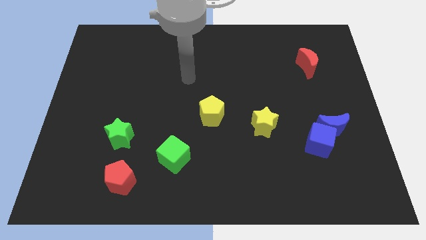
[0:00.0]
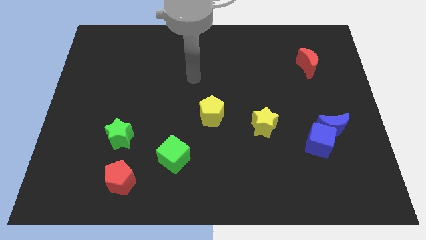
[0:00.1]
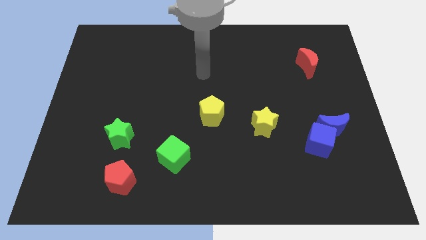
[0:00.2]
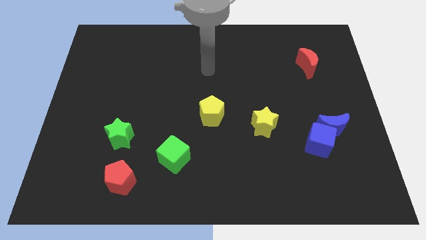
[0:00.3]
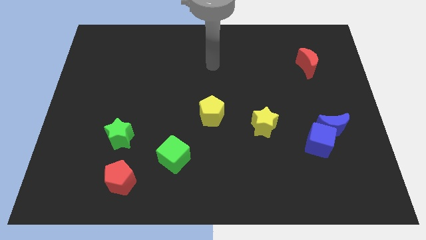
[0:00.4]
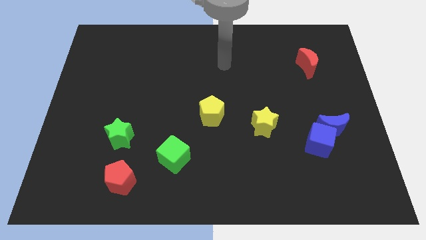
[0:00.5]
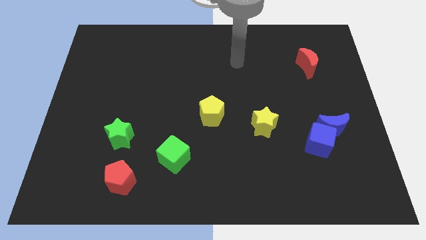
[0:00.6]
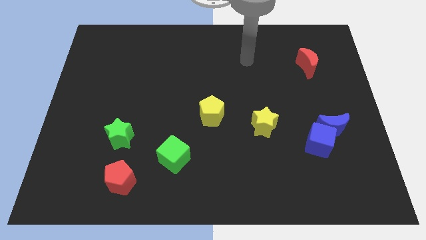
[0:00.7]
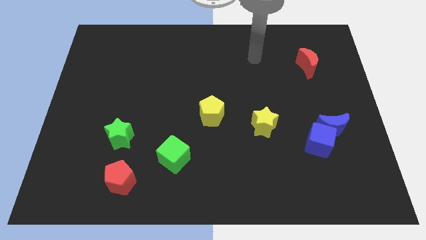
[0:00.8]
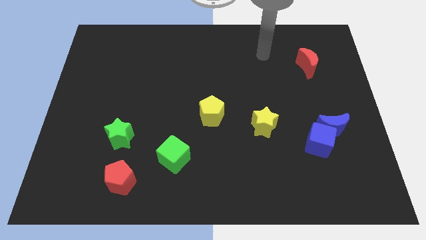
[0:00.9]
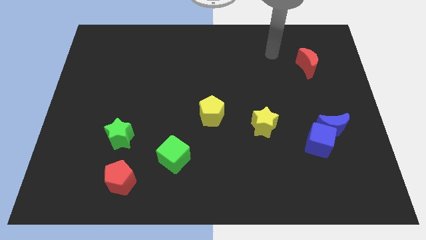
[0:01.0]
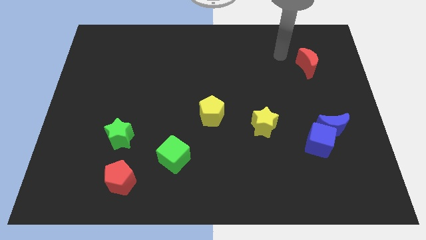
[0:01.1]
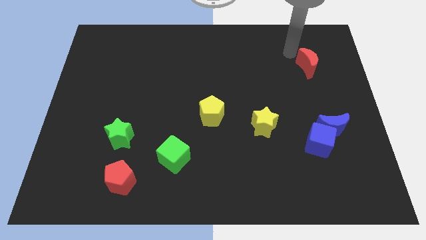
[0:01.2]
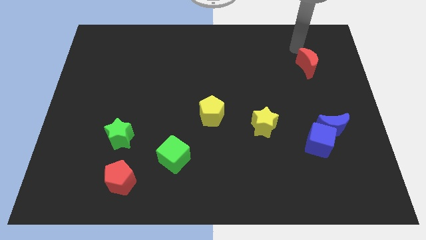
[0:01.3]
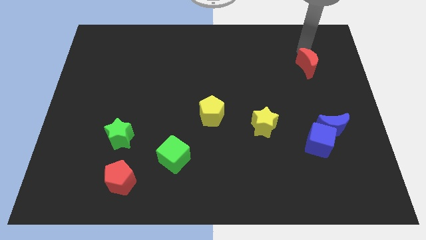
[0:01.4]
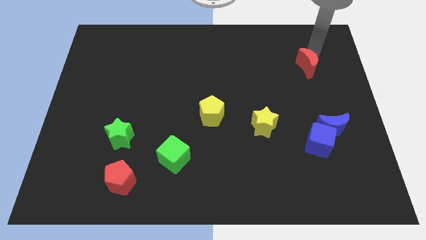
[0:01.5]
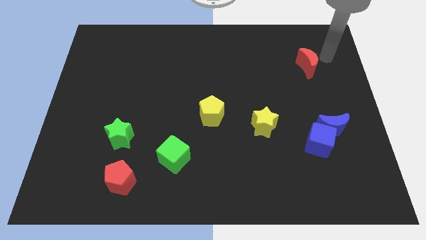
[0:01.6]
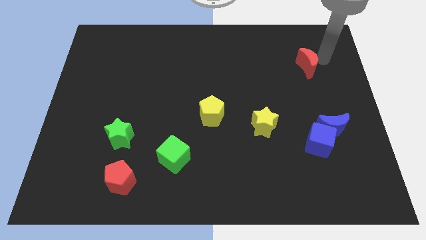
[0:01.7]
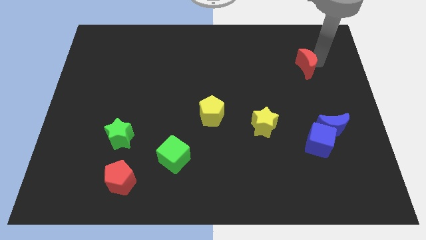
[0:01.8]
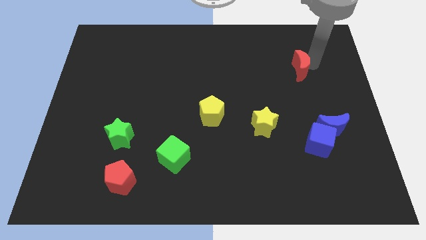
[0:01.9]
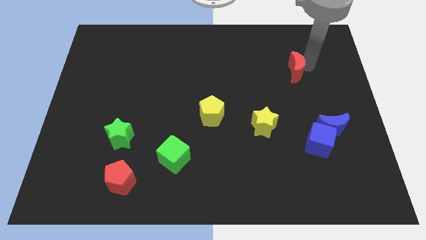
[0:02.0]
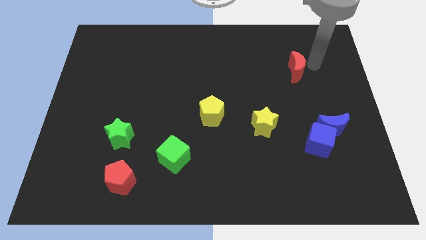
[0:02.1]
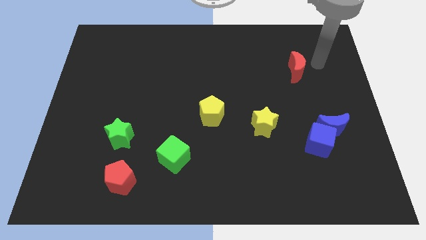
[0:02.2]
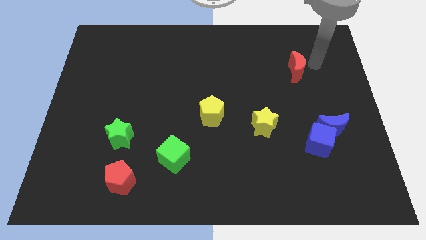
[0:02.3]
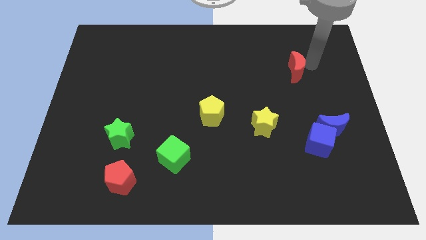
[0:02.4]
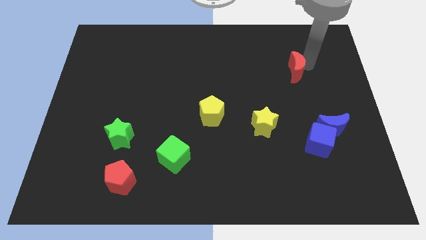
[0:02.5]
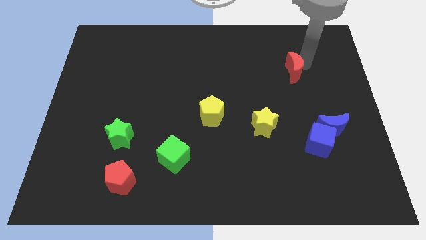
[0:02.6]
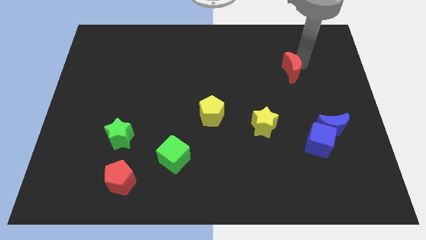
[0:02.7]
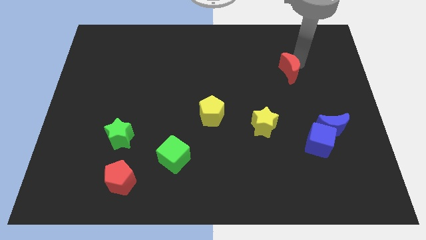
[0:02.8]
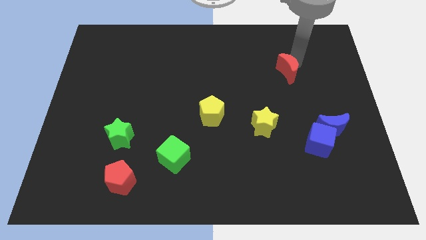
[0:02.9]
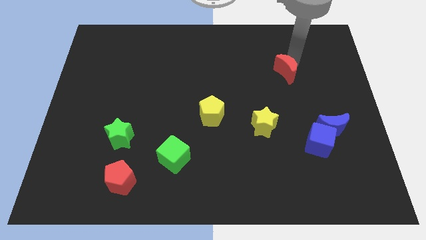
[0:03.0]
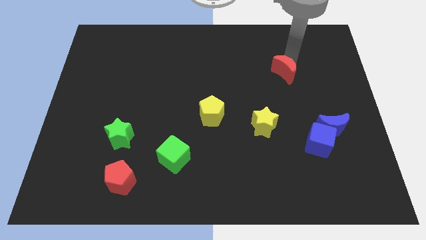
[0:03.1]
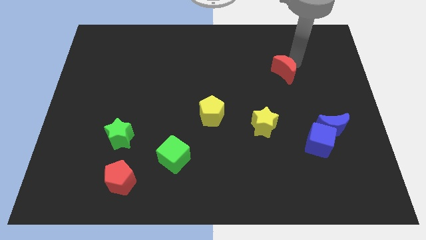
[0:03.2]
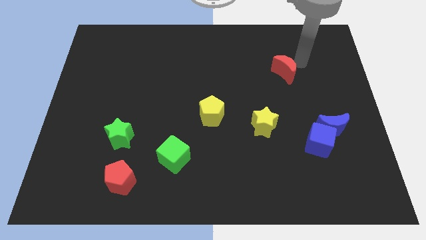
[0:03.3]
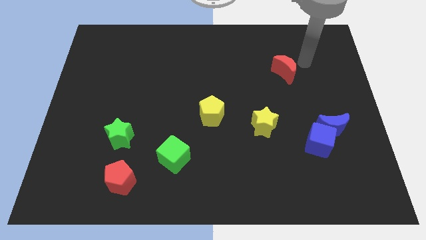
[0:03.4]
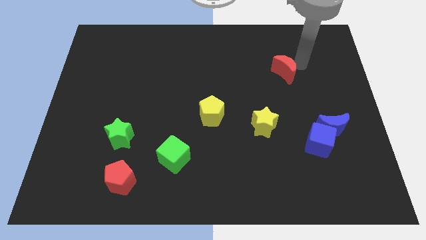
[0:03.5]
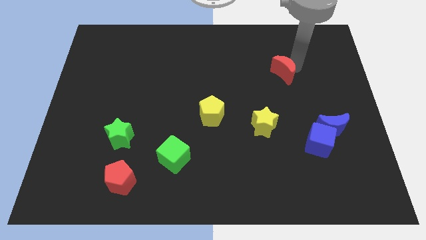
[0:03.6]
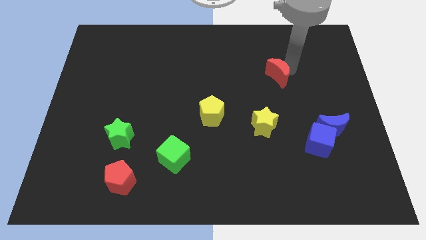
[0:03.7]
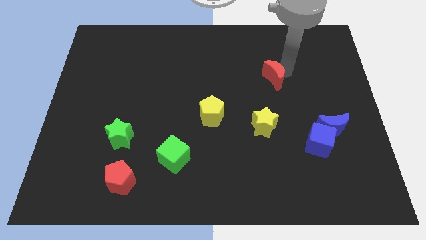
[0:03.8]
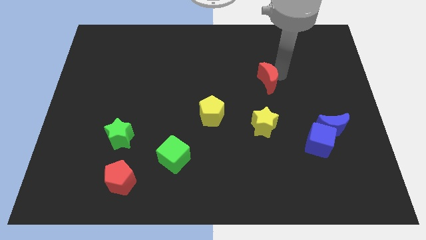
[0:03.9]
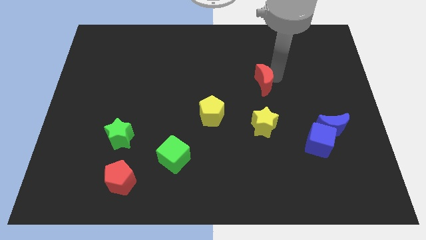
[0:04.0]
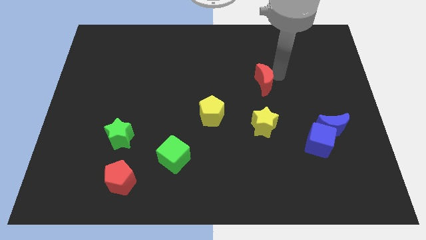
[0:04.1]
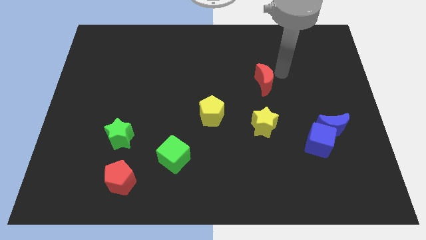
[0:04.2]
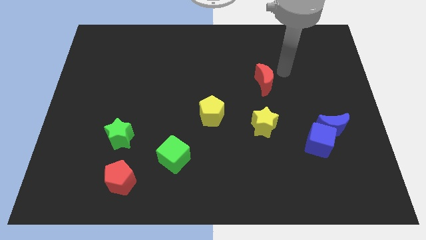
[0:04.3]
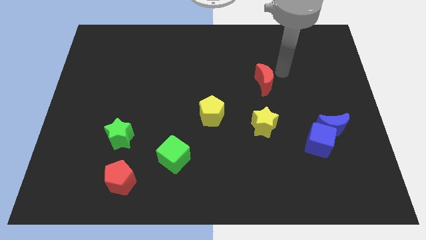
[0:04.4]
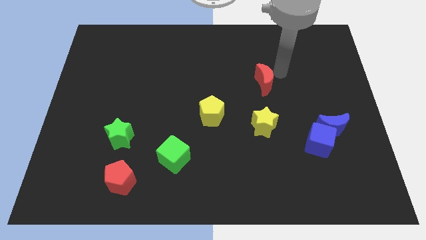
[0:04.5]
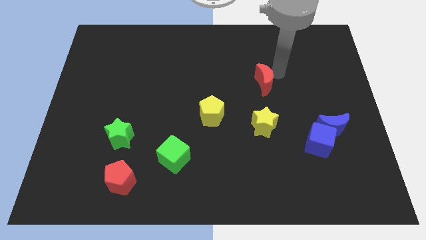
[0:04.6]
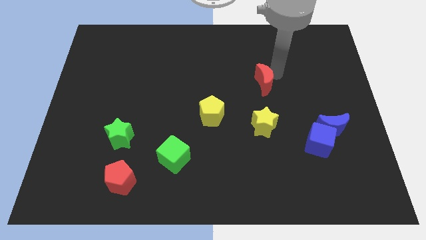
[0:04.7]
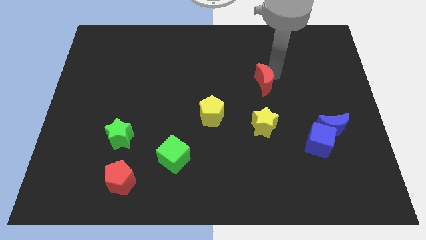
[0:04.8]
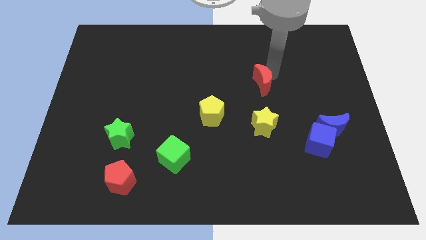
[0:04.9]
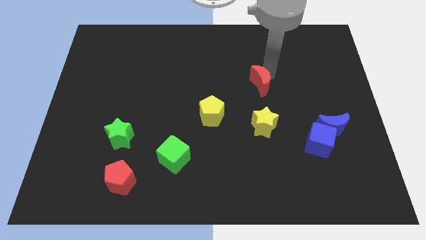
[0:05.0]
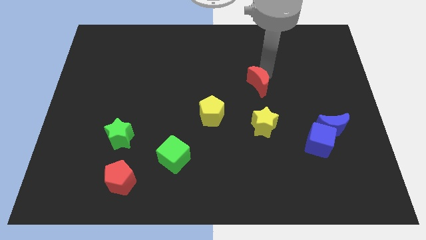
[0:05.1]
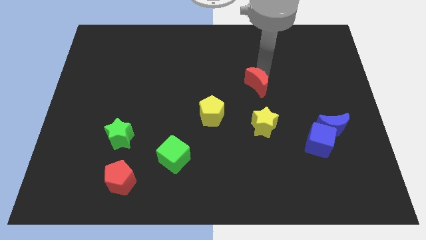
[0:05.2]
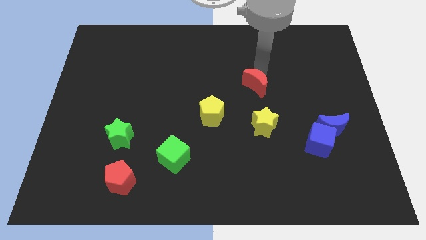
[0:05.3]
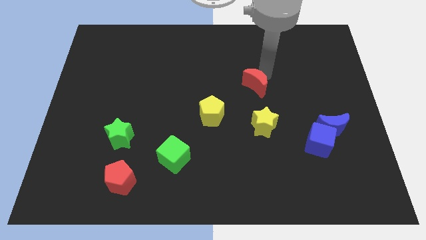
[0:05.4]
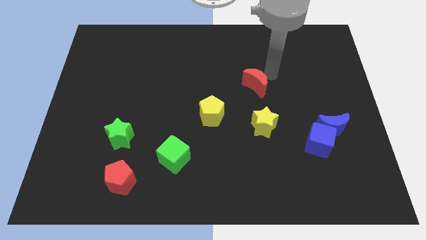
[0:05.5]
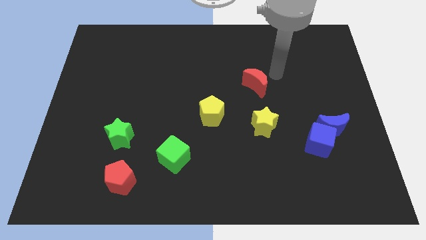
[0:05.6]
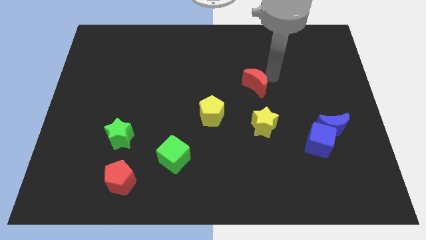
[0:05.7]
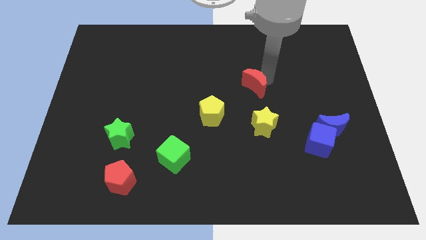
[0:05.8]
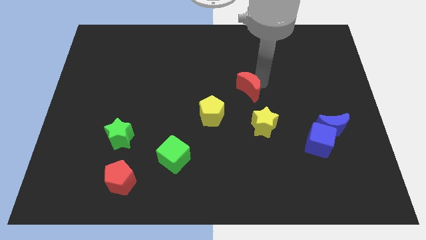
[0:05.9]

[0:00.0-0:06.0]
slide the red moon diagonally up and to the right of the yellow pentagon

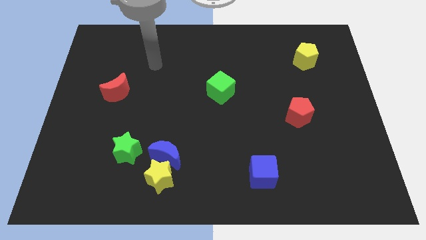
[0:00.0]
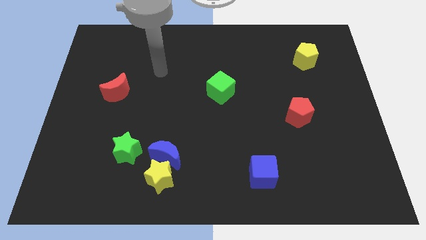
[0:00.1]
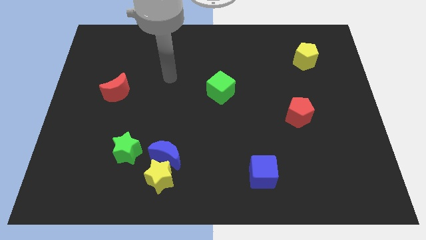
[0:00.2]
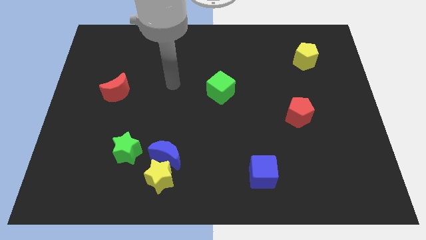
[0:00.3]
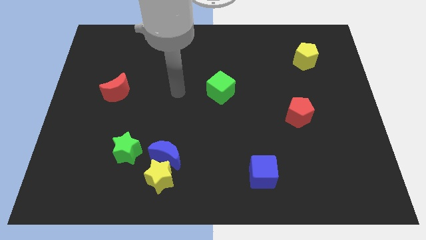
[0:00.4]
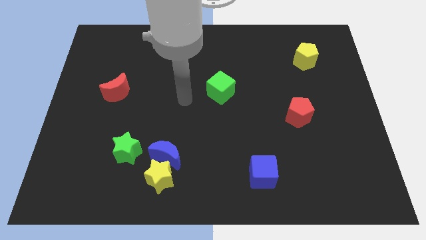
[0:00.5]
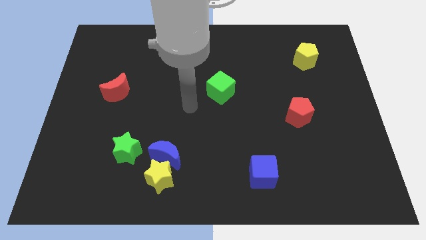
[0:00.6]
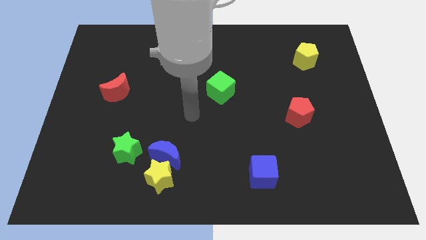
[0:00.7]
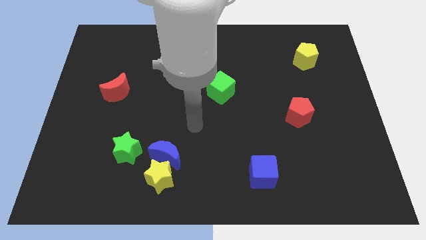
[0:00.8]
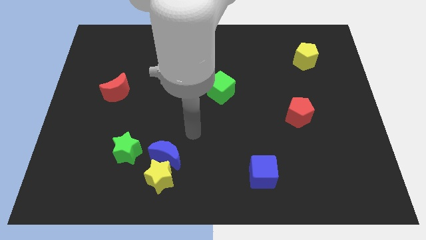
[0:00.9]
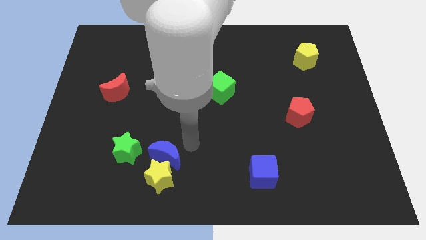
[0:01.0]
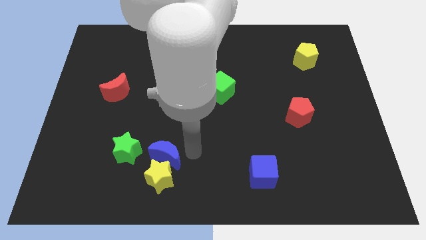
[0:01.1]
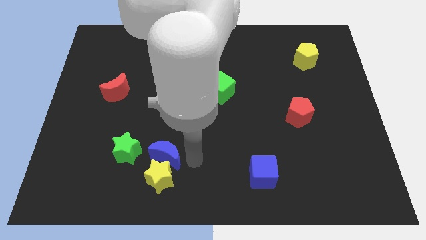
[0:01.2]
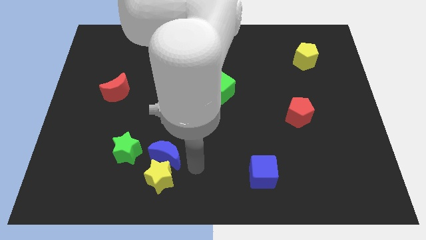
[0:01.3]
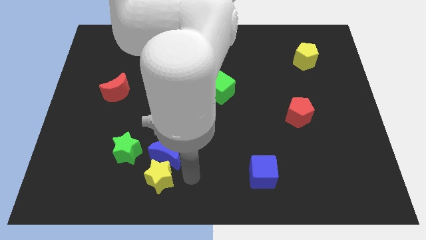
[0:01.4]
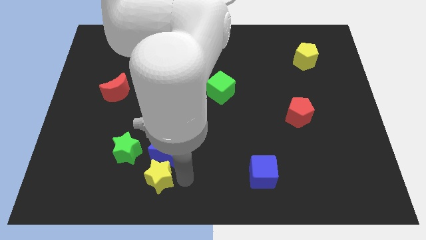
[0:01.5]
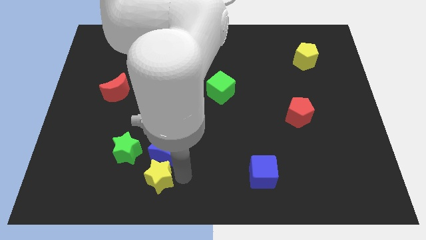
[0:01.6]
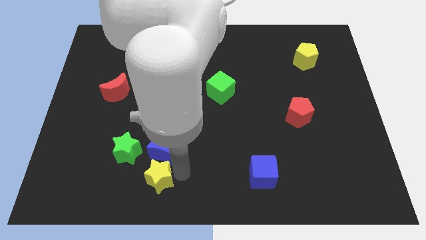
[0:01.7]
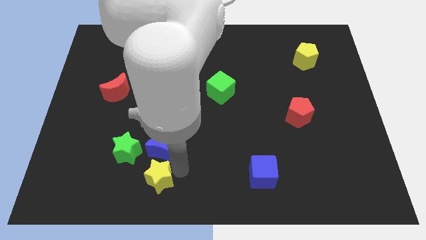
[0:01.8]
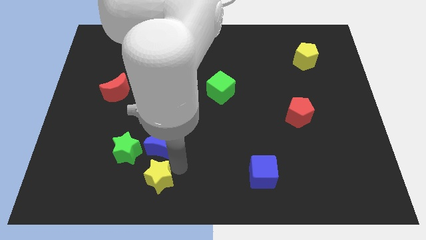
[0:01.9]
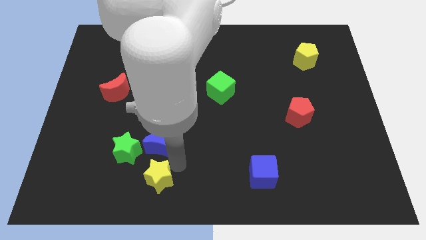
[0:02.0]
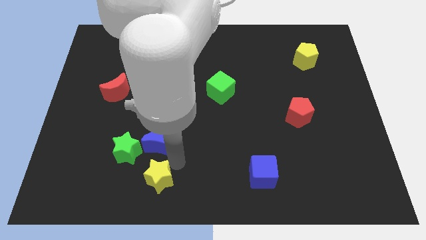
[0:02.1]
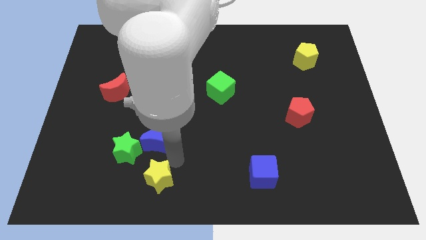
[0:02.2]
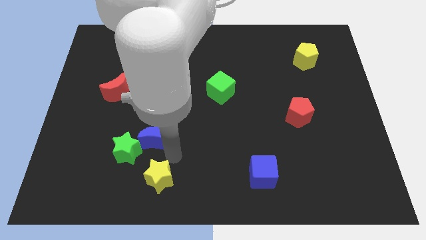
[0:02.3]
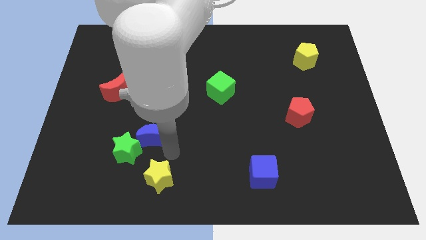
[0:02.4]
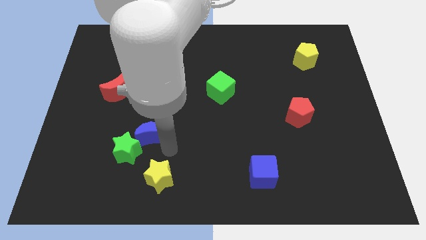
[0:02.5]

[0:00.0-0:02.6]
slide the blue moon to the top of the green star
